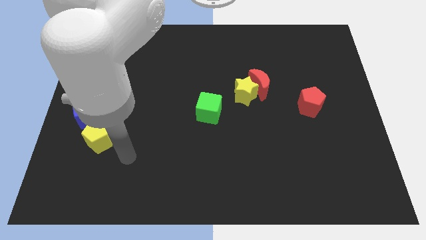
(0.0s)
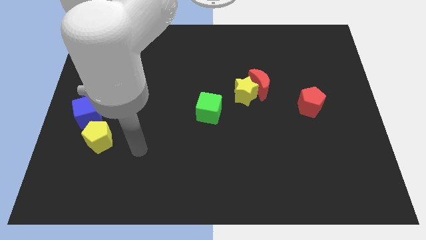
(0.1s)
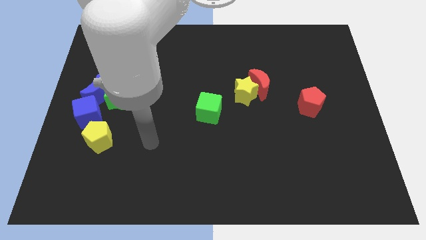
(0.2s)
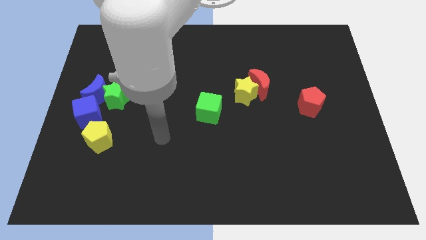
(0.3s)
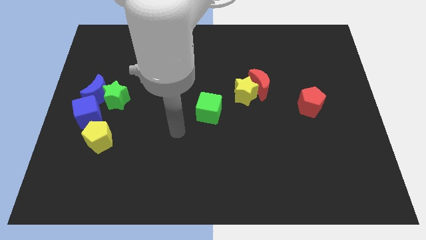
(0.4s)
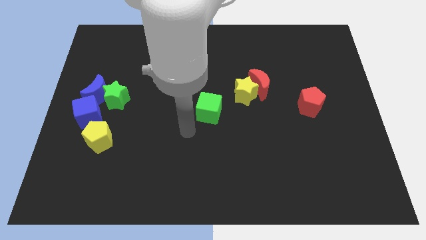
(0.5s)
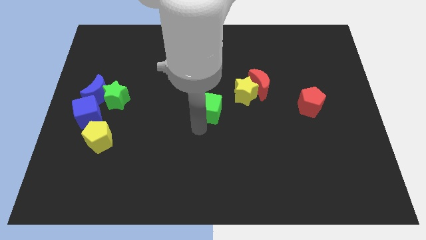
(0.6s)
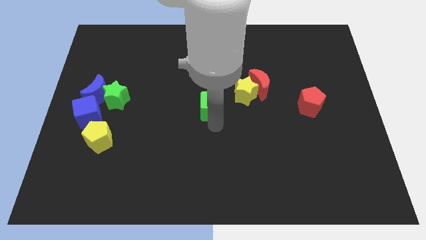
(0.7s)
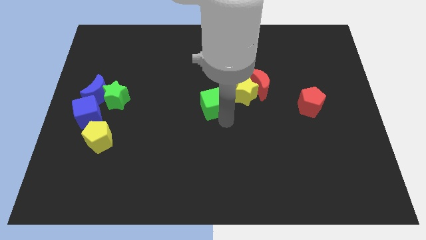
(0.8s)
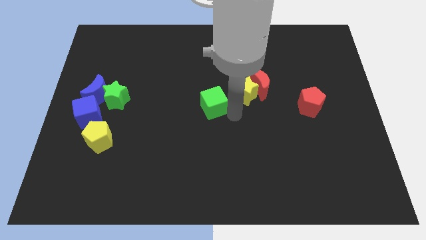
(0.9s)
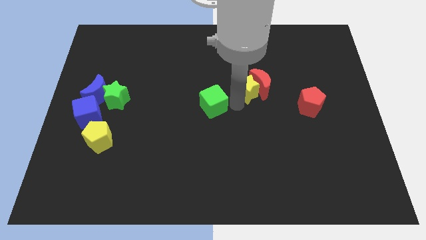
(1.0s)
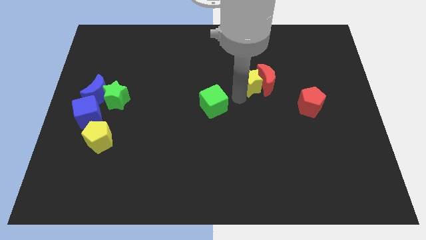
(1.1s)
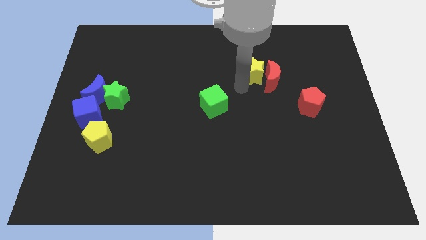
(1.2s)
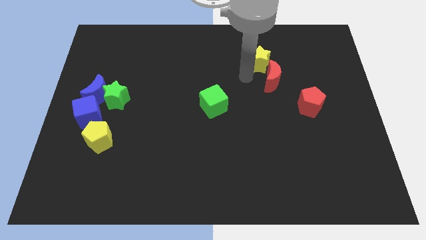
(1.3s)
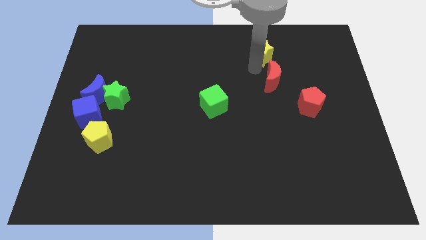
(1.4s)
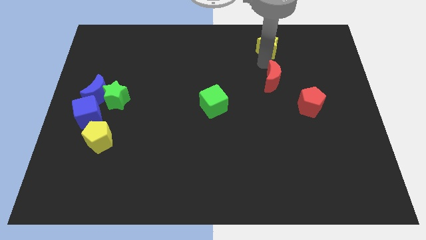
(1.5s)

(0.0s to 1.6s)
move the red moon away from the yellow star

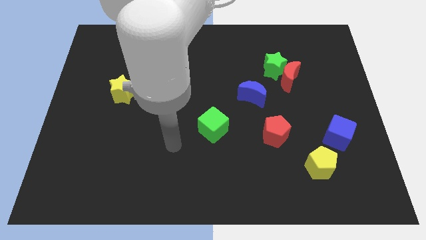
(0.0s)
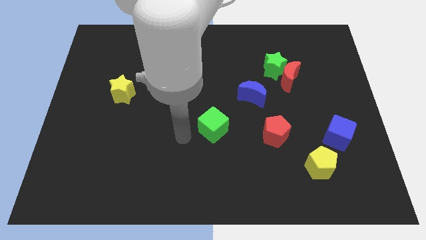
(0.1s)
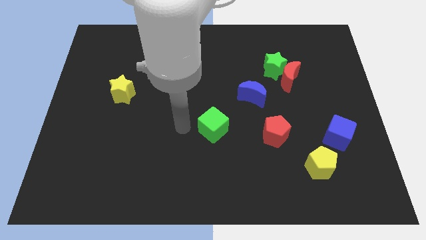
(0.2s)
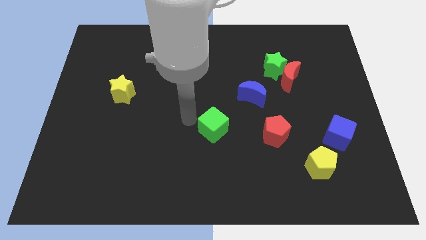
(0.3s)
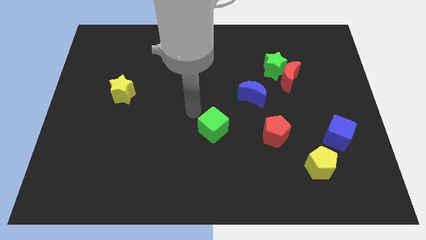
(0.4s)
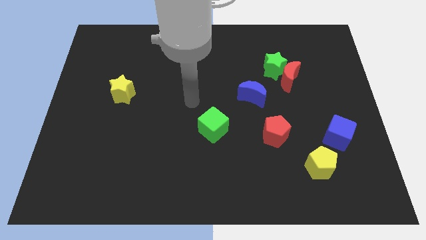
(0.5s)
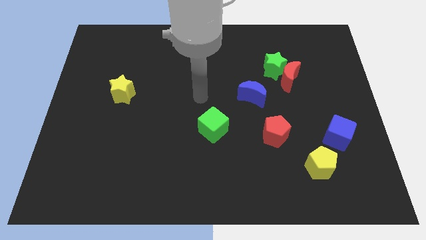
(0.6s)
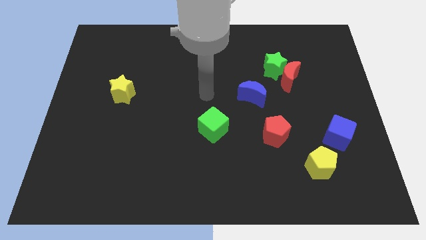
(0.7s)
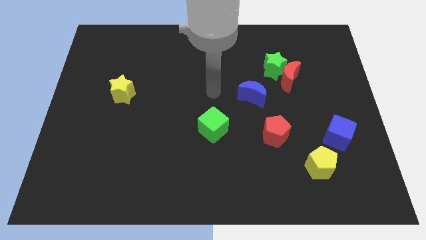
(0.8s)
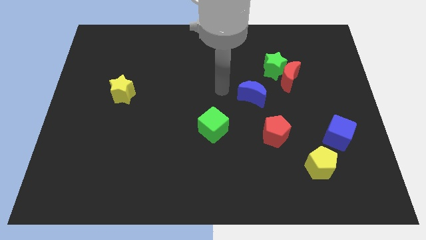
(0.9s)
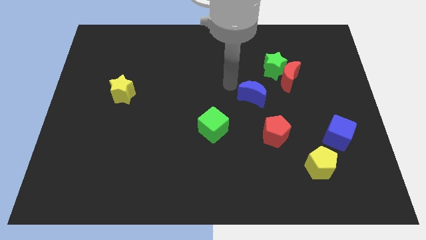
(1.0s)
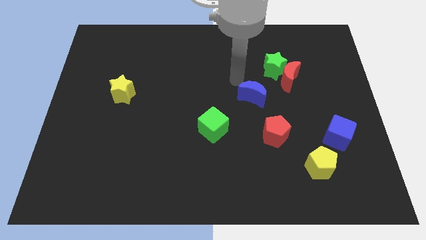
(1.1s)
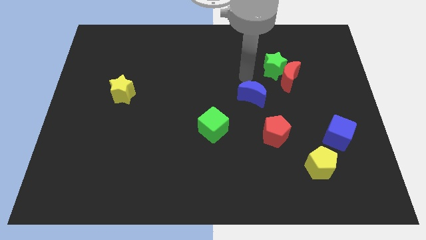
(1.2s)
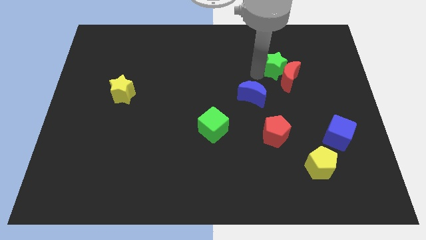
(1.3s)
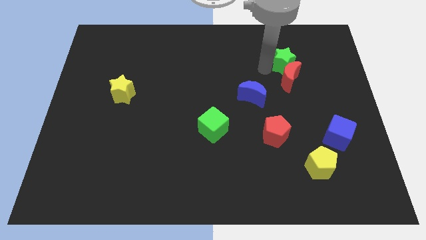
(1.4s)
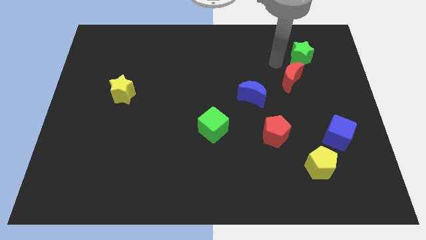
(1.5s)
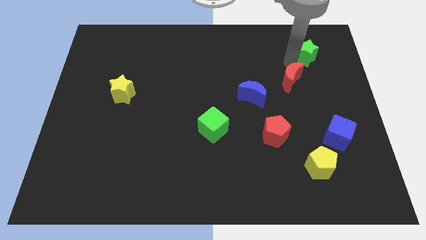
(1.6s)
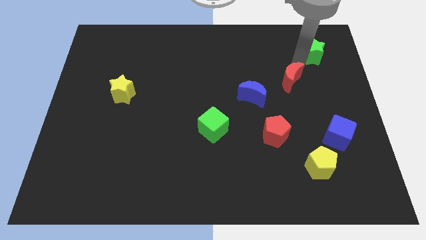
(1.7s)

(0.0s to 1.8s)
move the red moon away from the green star

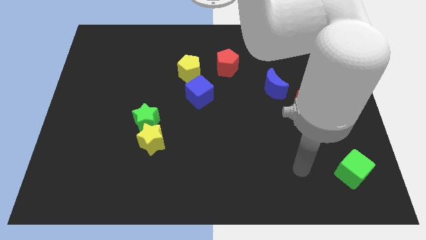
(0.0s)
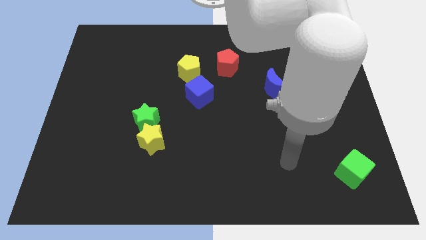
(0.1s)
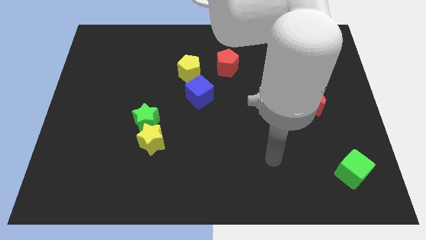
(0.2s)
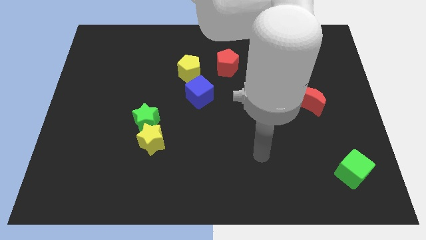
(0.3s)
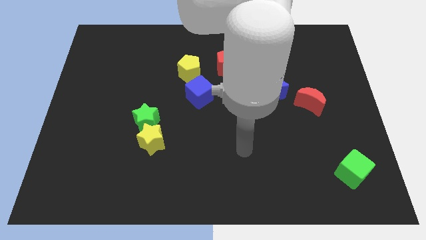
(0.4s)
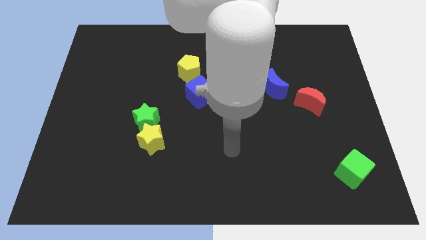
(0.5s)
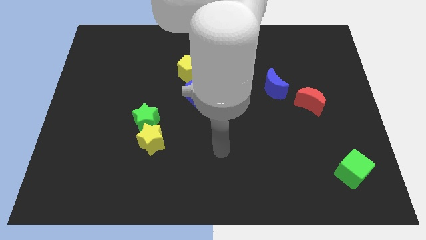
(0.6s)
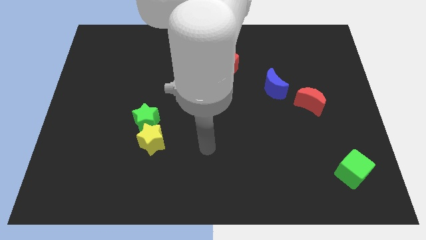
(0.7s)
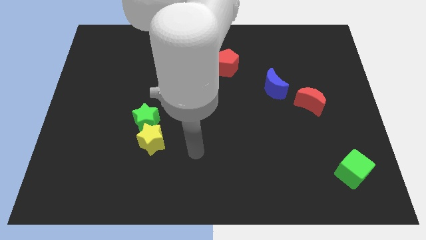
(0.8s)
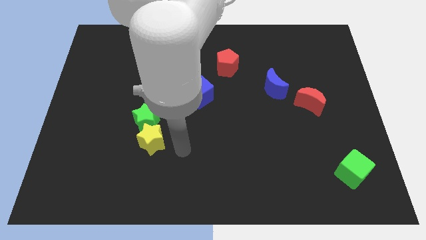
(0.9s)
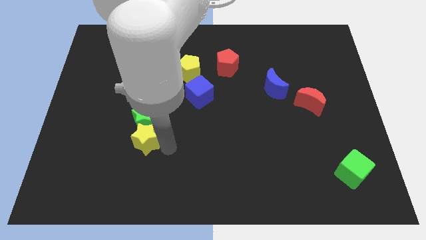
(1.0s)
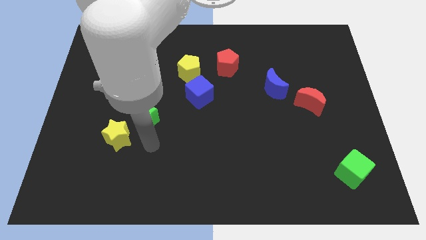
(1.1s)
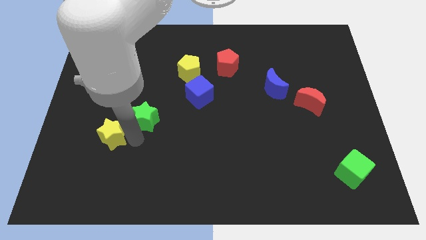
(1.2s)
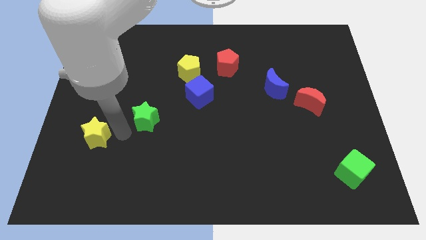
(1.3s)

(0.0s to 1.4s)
separate the green star from the yellow star

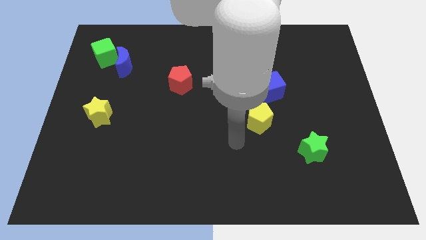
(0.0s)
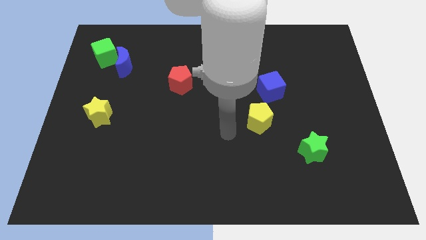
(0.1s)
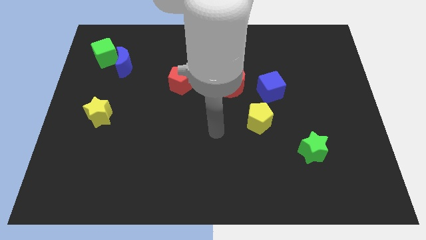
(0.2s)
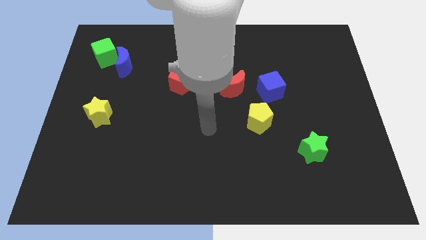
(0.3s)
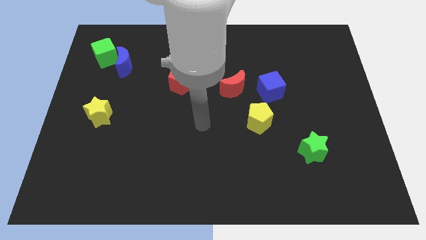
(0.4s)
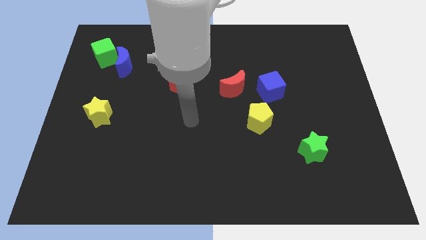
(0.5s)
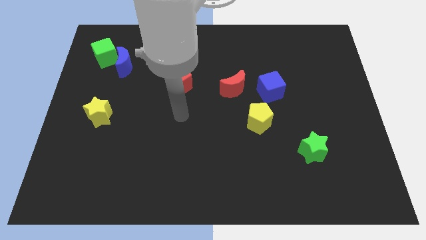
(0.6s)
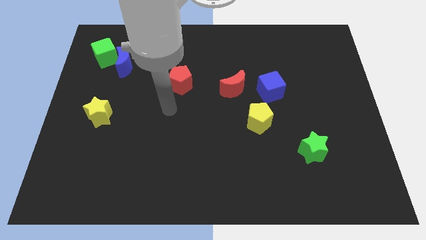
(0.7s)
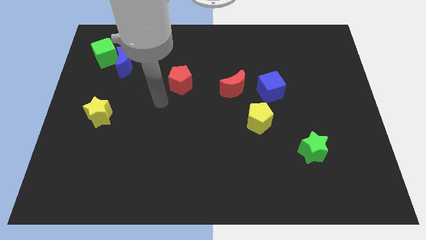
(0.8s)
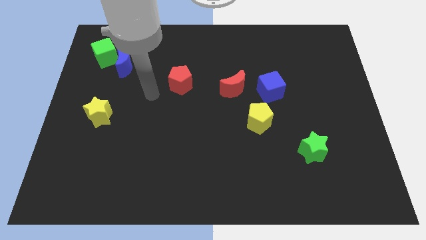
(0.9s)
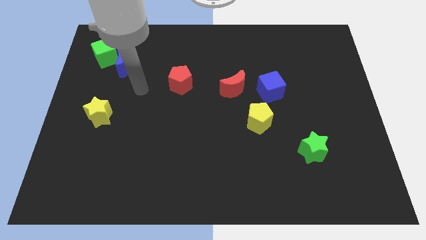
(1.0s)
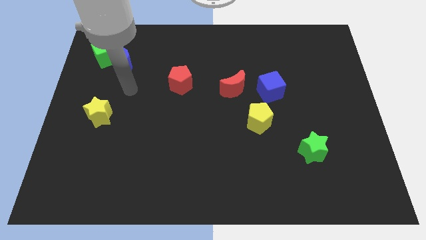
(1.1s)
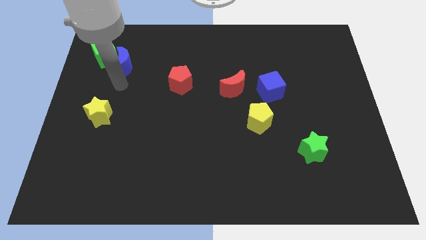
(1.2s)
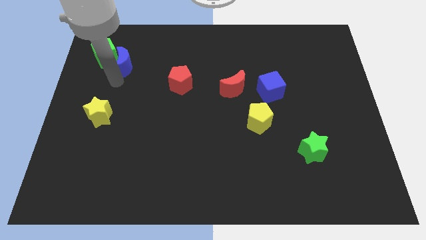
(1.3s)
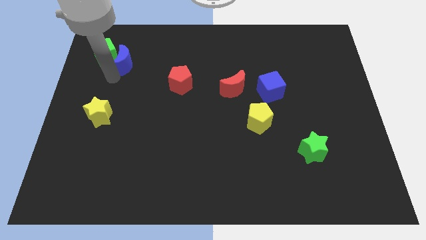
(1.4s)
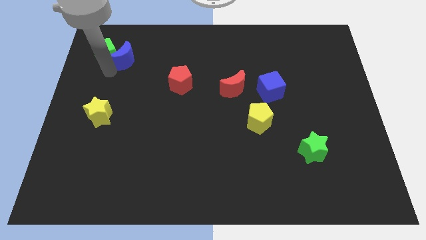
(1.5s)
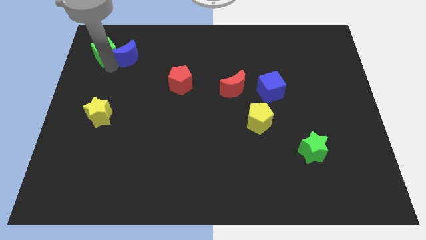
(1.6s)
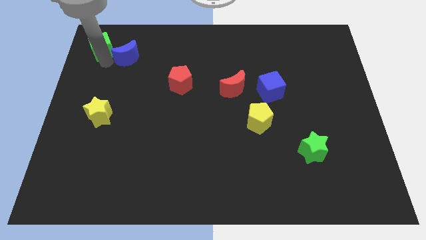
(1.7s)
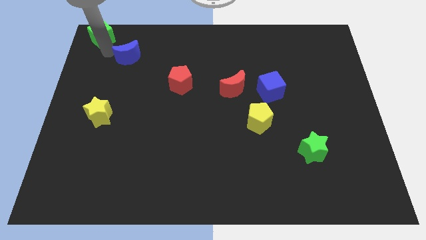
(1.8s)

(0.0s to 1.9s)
separate the blue moon from the green cube

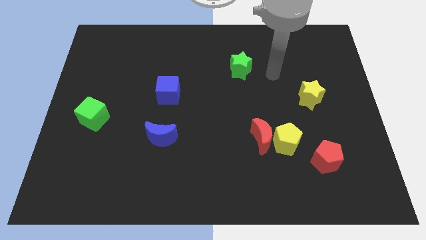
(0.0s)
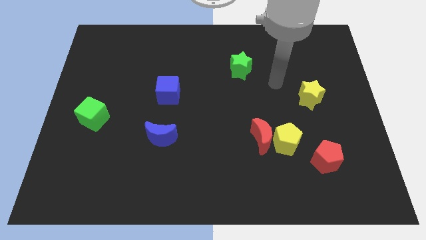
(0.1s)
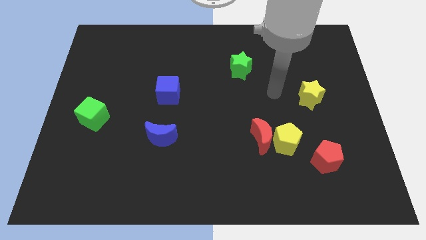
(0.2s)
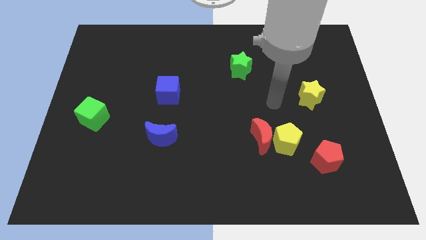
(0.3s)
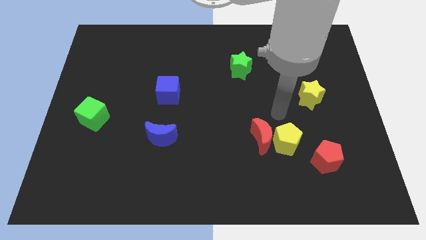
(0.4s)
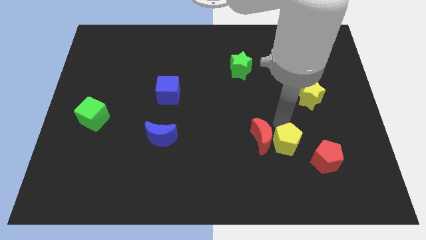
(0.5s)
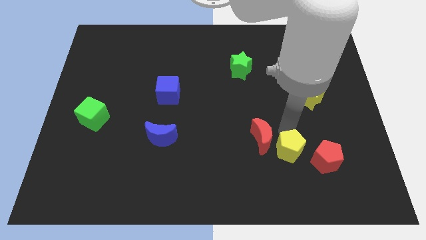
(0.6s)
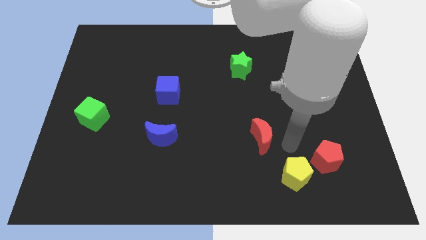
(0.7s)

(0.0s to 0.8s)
pull the red moon apart from the yellow pentagon

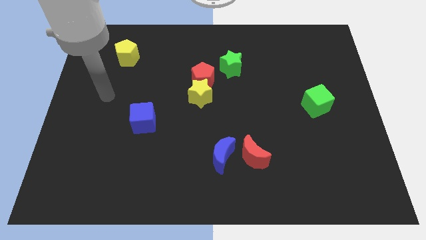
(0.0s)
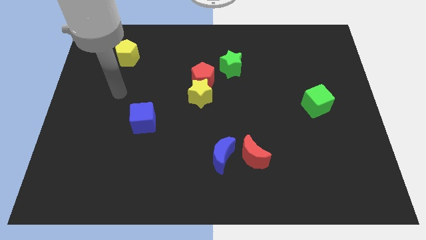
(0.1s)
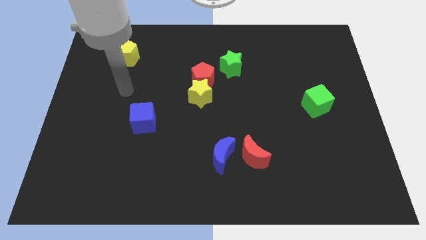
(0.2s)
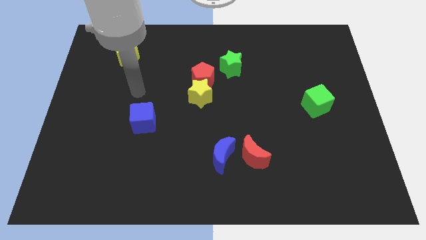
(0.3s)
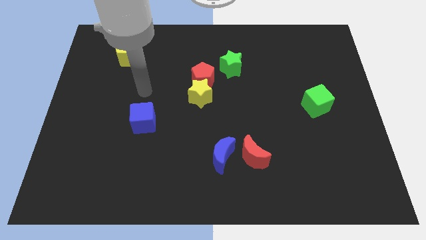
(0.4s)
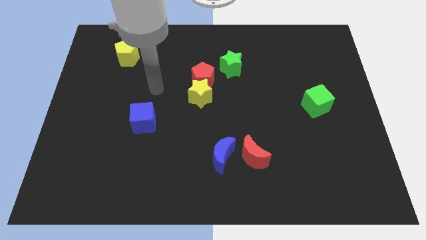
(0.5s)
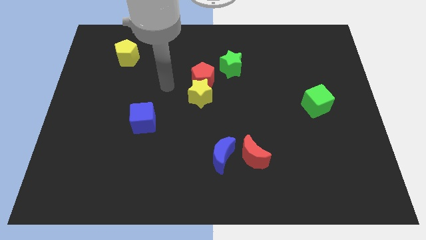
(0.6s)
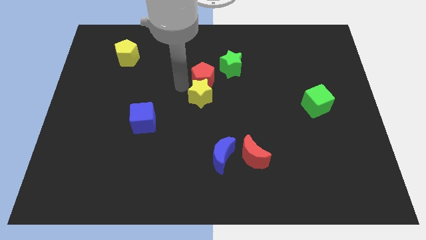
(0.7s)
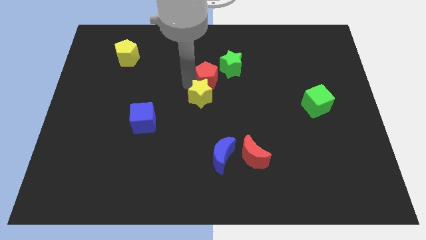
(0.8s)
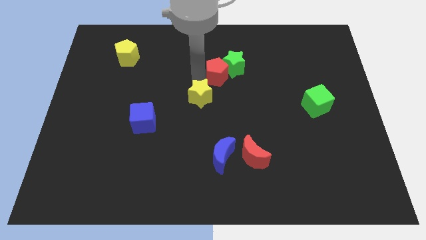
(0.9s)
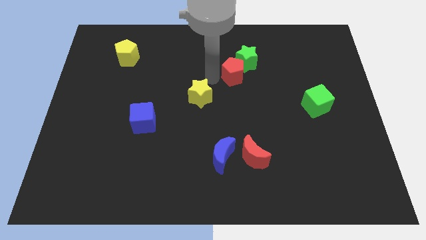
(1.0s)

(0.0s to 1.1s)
separate the yellow star from the red pentagon

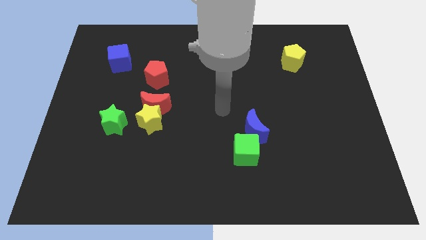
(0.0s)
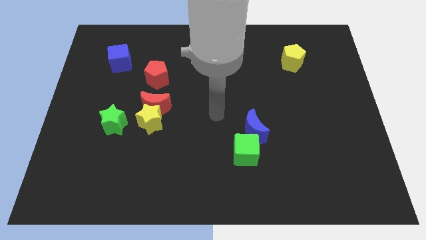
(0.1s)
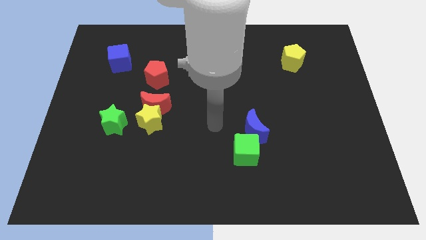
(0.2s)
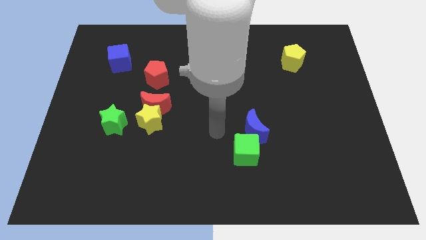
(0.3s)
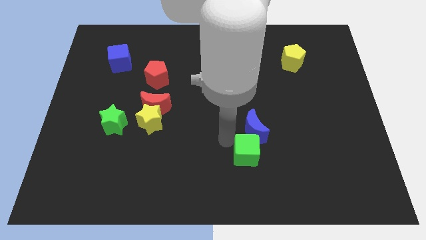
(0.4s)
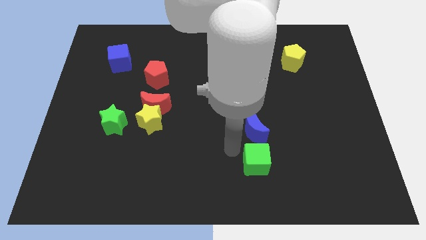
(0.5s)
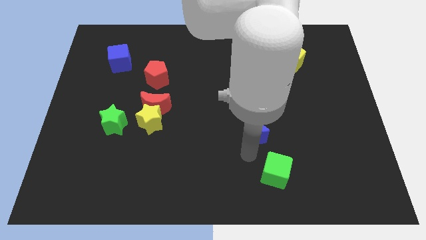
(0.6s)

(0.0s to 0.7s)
pull the blue moon apart from the green cube

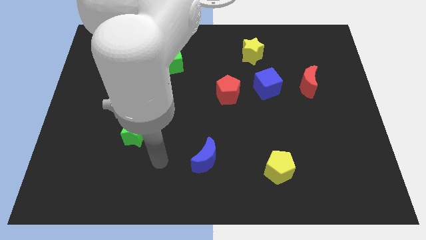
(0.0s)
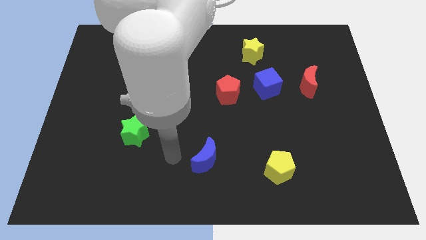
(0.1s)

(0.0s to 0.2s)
pull the red pentagon apart from the blue cube
